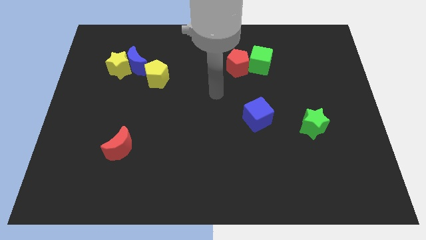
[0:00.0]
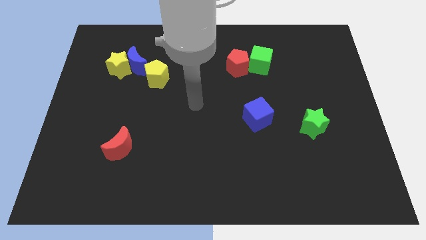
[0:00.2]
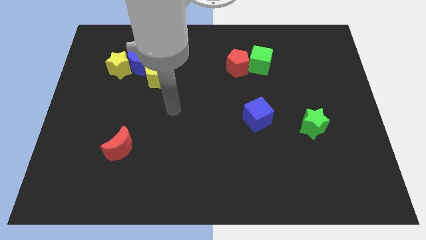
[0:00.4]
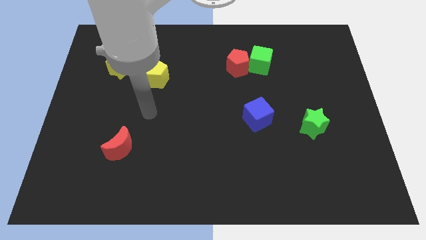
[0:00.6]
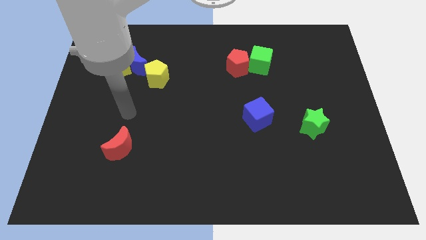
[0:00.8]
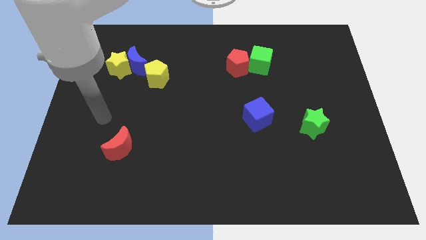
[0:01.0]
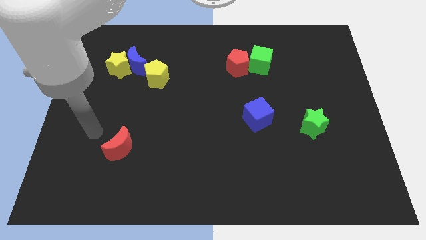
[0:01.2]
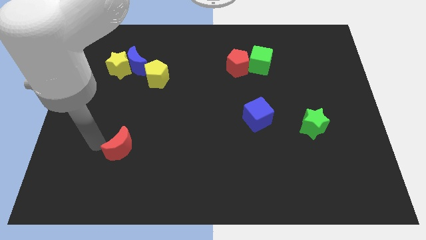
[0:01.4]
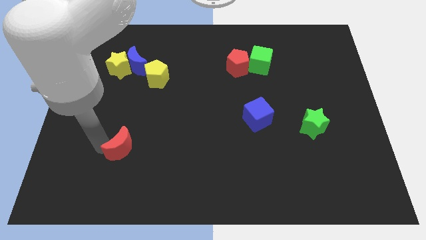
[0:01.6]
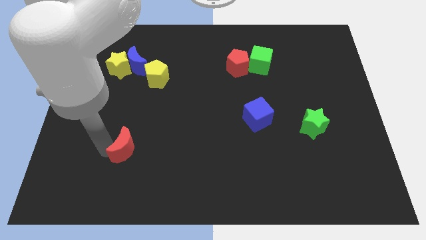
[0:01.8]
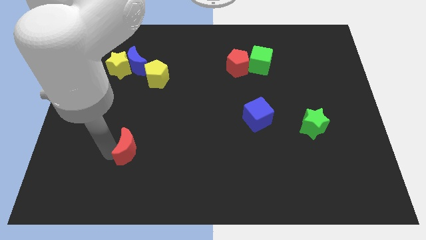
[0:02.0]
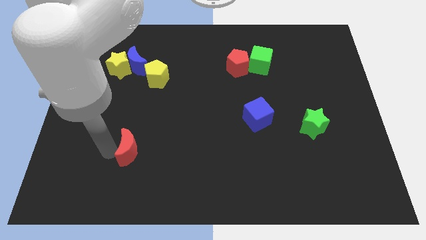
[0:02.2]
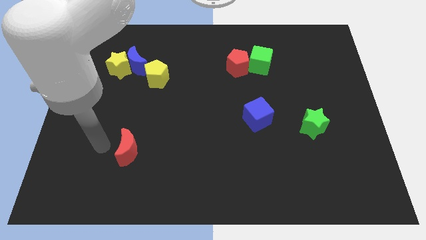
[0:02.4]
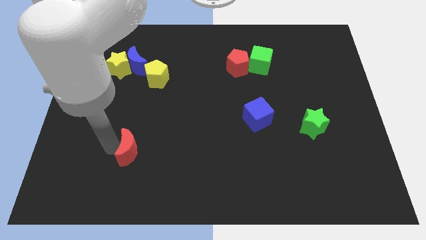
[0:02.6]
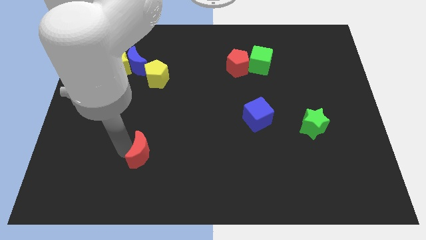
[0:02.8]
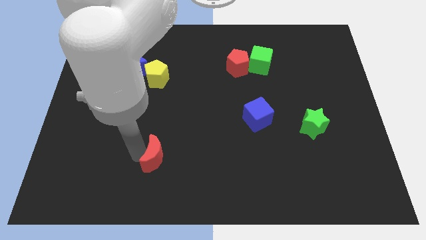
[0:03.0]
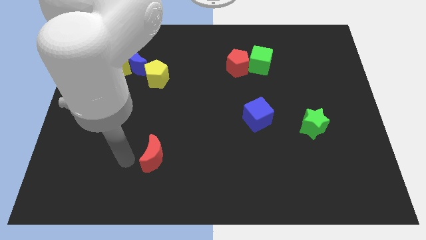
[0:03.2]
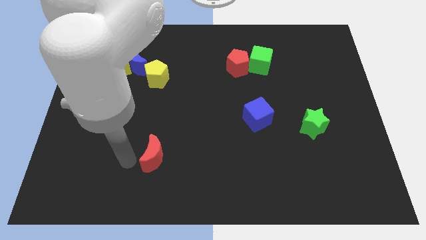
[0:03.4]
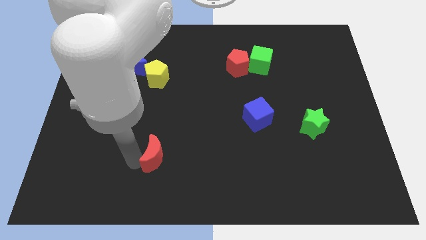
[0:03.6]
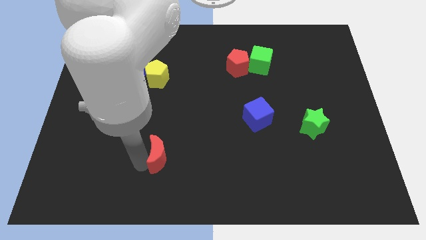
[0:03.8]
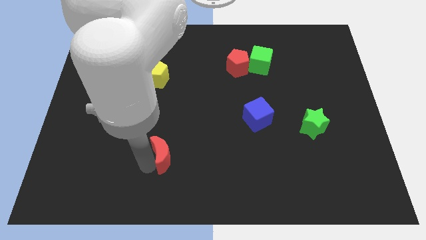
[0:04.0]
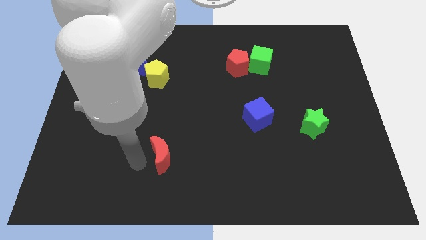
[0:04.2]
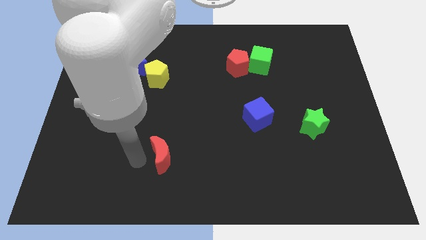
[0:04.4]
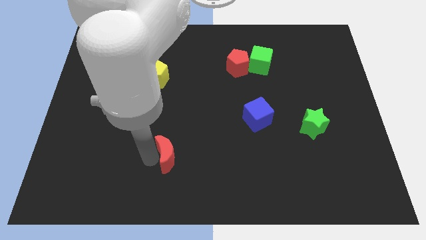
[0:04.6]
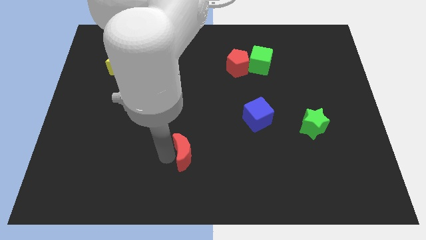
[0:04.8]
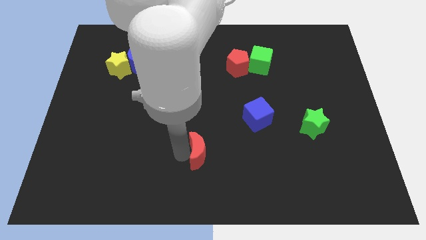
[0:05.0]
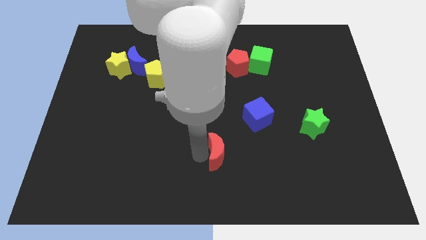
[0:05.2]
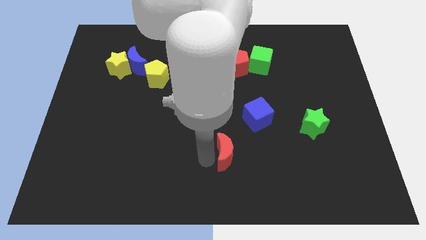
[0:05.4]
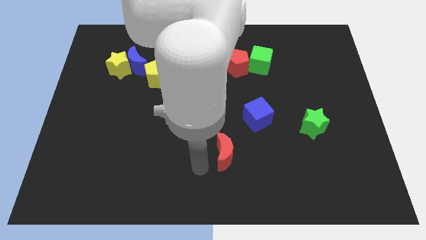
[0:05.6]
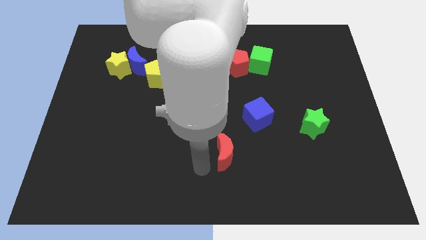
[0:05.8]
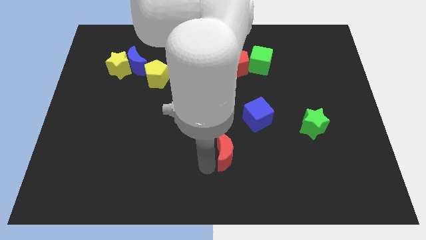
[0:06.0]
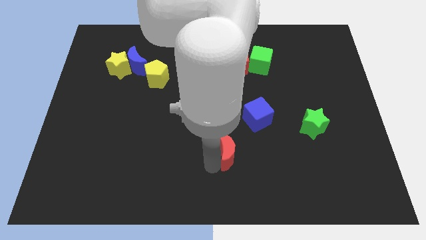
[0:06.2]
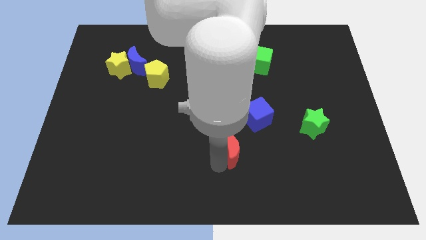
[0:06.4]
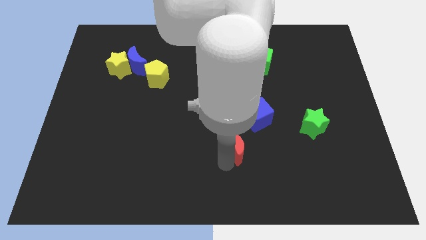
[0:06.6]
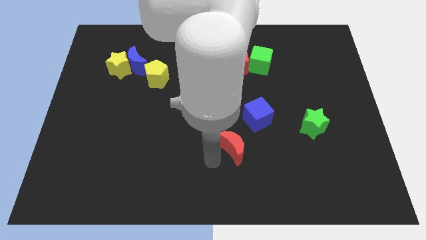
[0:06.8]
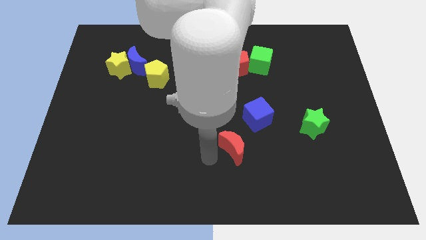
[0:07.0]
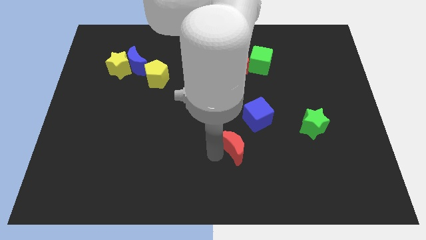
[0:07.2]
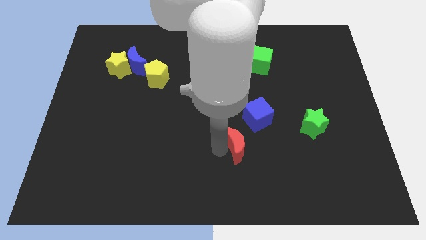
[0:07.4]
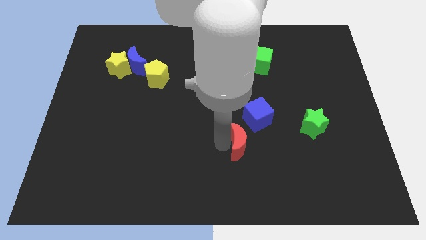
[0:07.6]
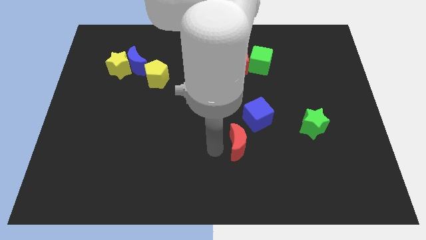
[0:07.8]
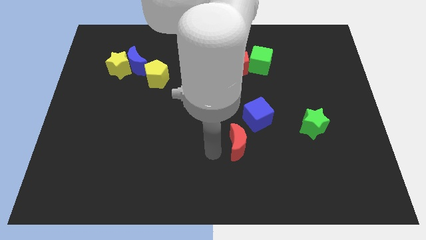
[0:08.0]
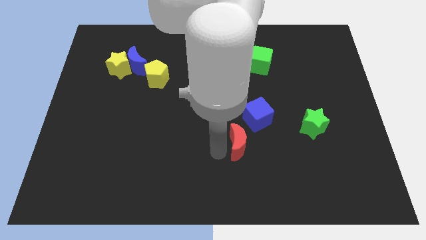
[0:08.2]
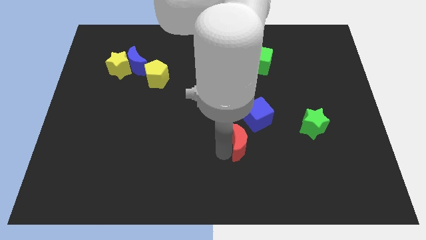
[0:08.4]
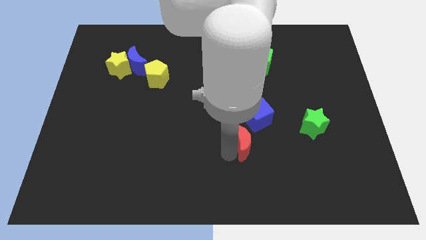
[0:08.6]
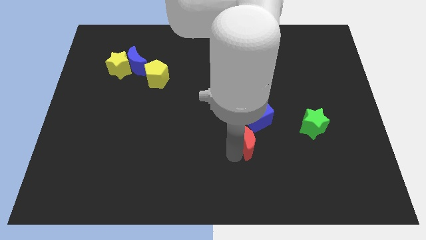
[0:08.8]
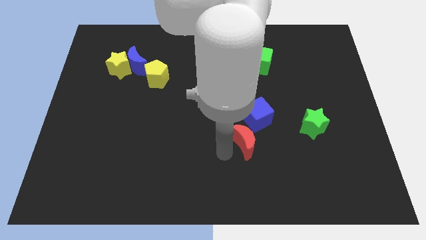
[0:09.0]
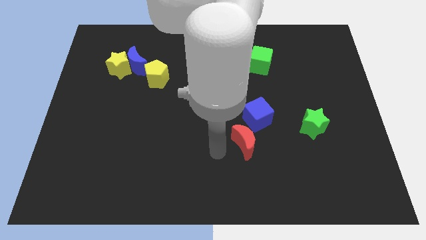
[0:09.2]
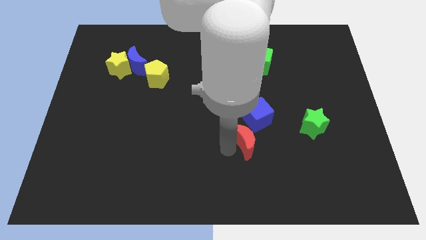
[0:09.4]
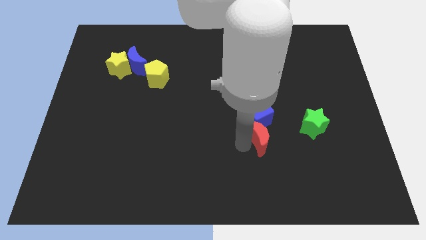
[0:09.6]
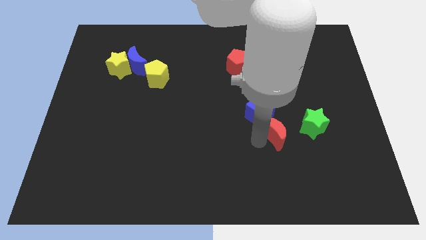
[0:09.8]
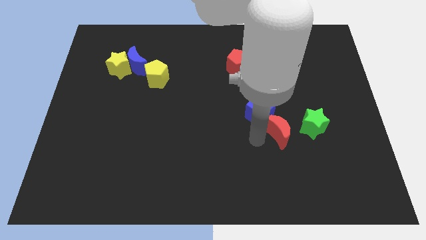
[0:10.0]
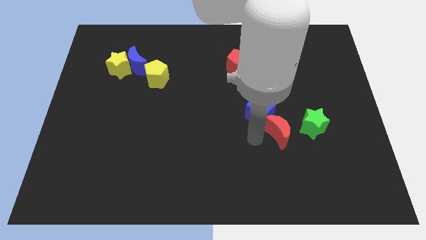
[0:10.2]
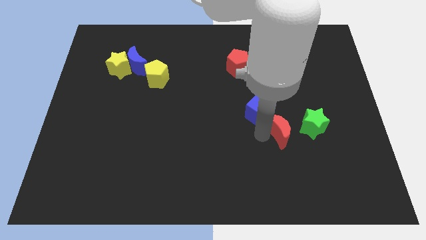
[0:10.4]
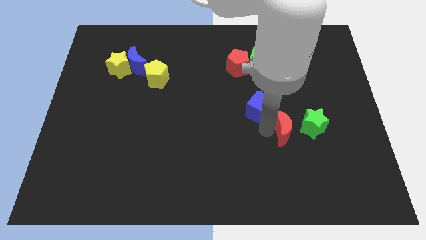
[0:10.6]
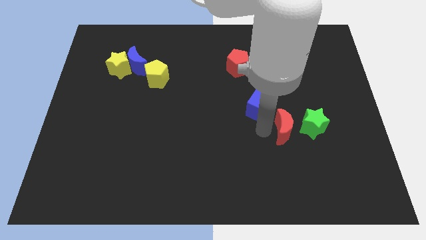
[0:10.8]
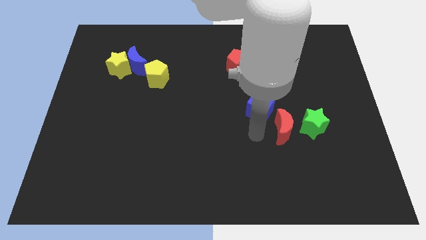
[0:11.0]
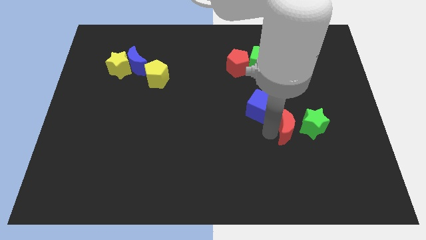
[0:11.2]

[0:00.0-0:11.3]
push the red moon to the green star
